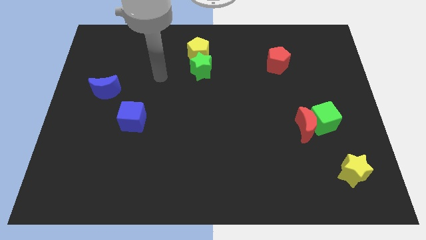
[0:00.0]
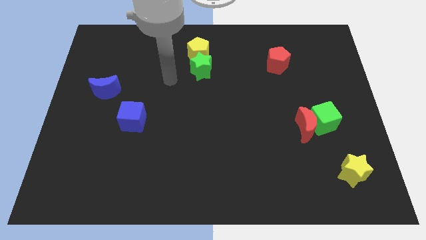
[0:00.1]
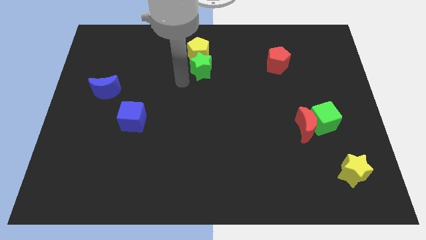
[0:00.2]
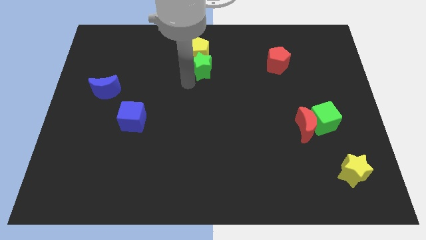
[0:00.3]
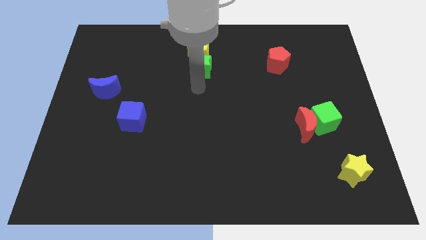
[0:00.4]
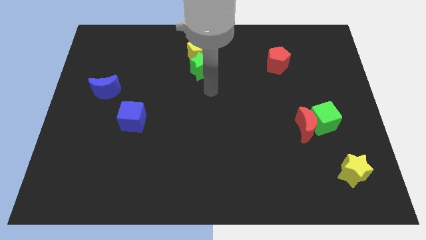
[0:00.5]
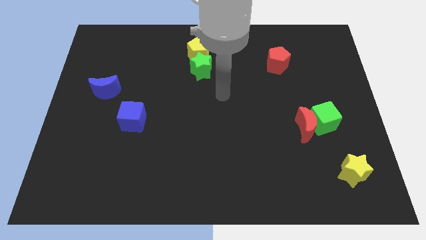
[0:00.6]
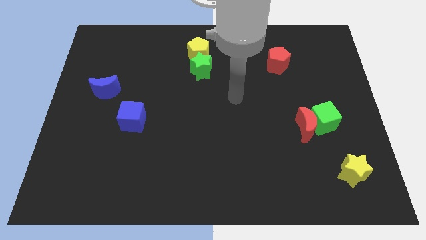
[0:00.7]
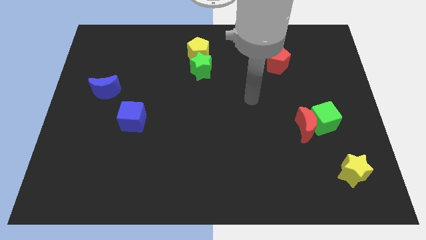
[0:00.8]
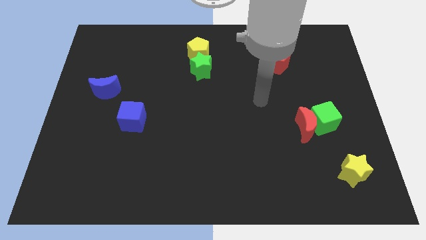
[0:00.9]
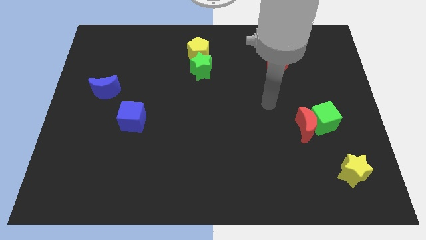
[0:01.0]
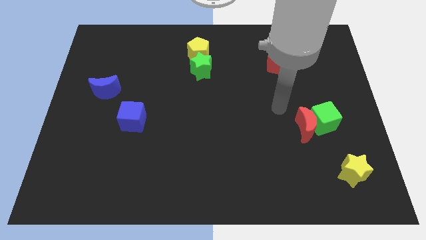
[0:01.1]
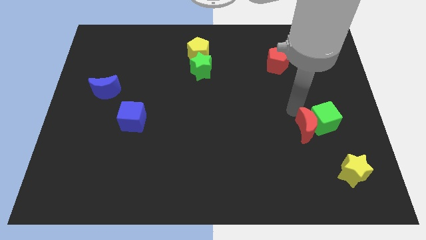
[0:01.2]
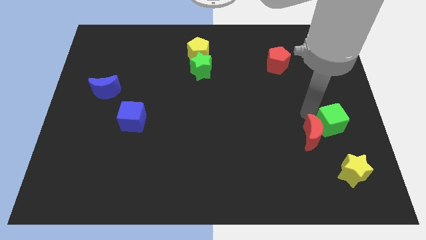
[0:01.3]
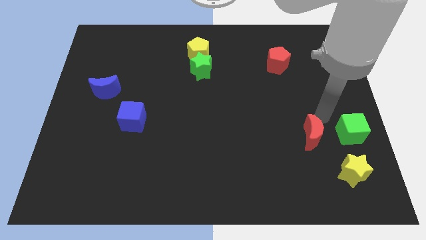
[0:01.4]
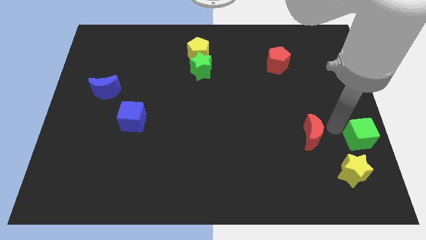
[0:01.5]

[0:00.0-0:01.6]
separate the red moon from the green cube

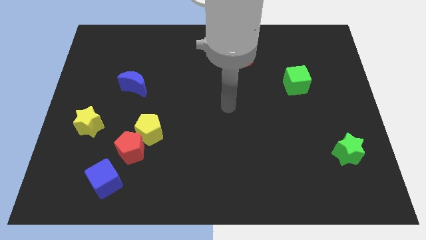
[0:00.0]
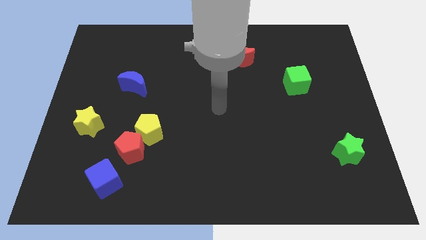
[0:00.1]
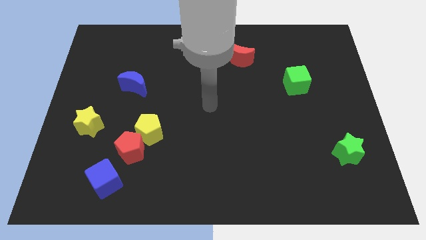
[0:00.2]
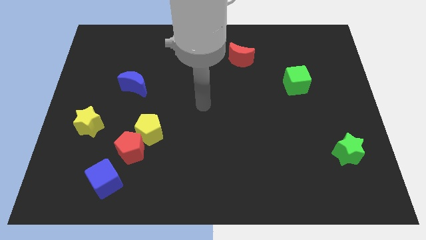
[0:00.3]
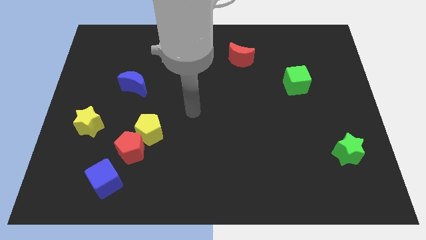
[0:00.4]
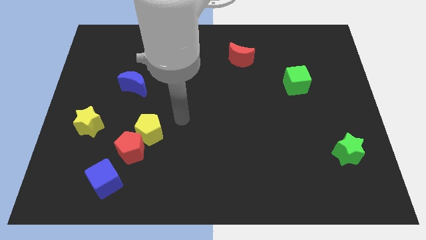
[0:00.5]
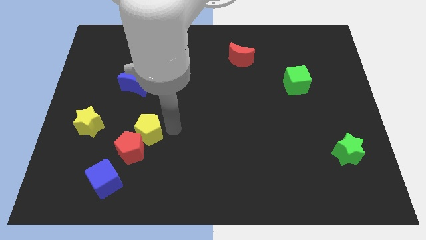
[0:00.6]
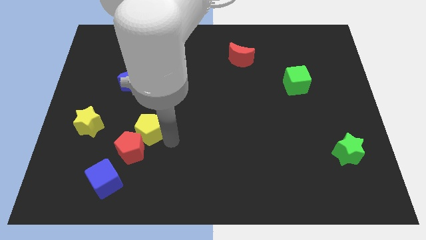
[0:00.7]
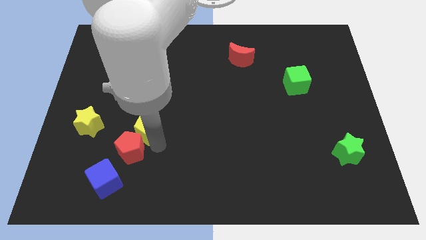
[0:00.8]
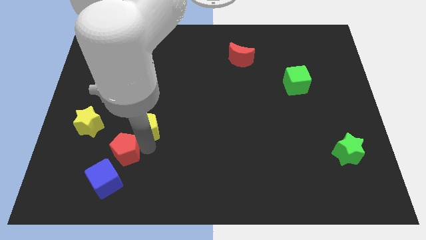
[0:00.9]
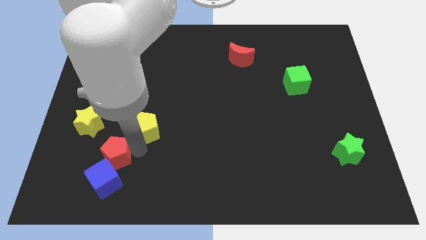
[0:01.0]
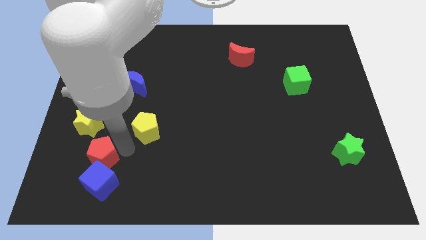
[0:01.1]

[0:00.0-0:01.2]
move the yellow pentagon away from the red pentagon

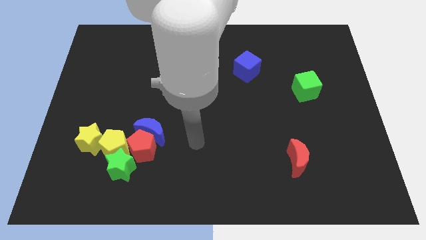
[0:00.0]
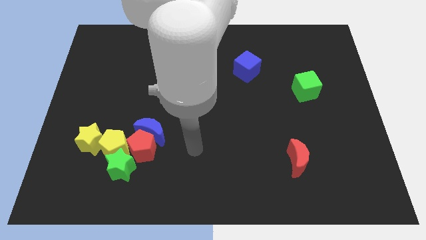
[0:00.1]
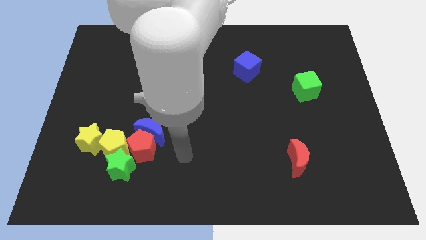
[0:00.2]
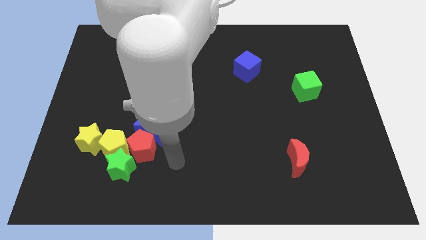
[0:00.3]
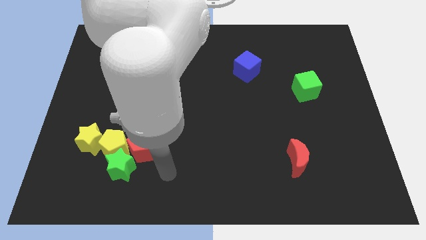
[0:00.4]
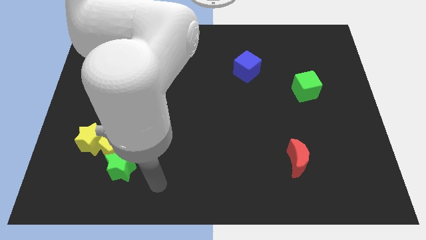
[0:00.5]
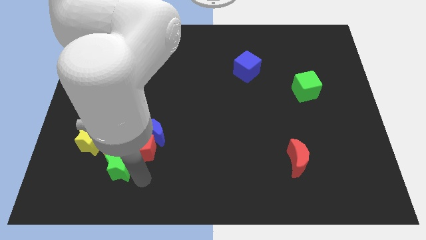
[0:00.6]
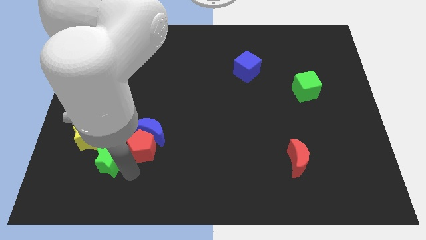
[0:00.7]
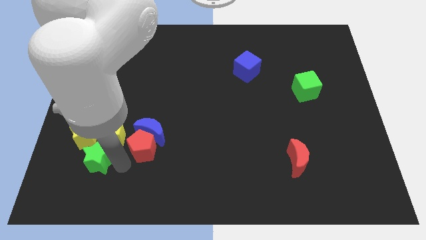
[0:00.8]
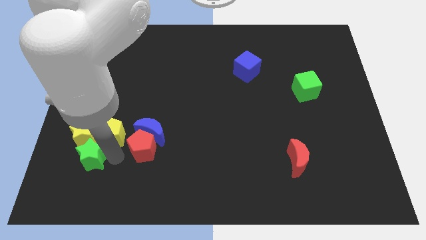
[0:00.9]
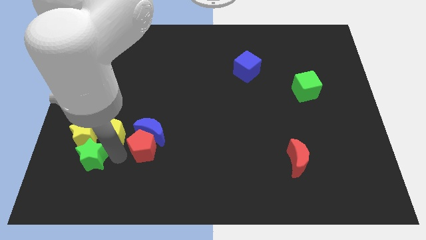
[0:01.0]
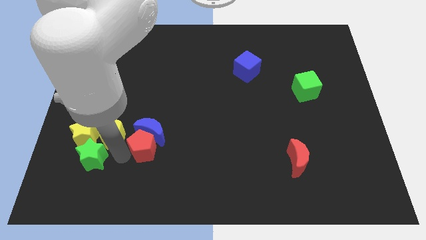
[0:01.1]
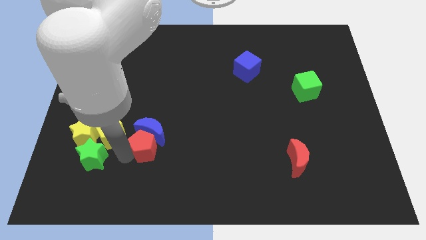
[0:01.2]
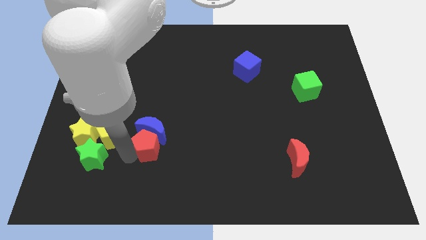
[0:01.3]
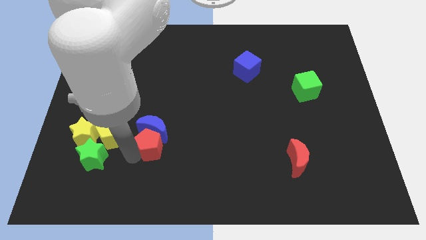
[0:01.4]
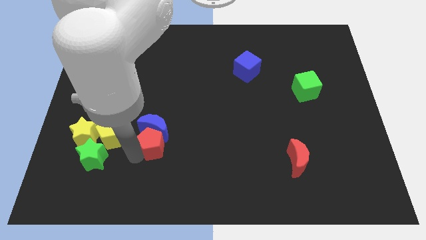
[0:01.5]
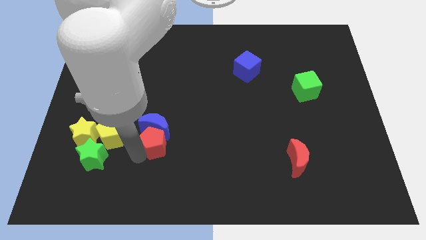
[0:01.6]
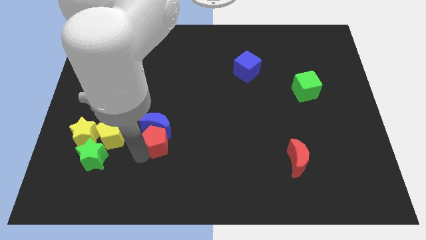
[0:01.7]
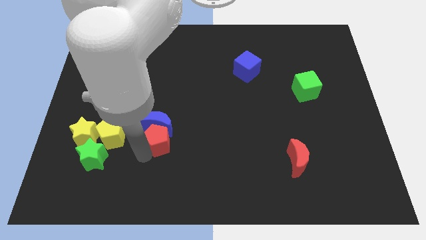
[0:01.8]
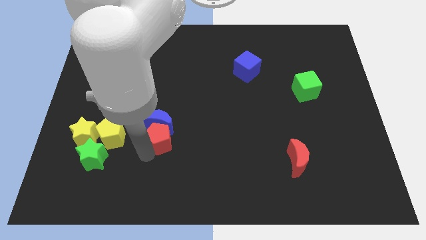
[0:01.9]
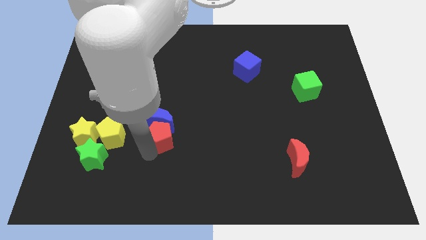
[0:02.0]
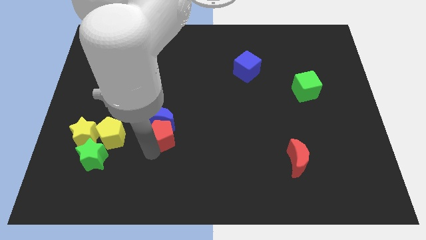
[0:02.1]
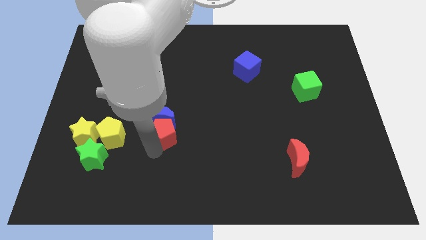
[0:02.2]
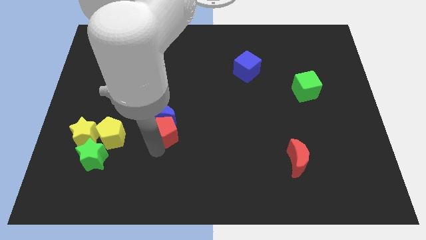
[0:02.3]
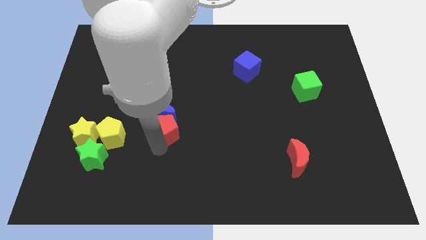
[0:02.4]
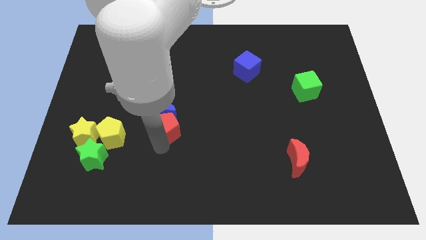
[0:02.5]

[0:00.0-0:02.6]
move the red pentagon away from the blue moon, yellow pentagon, and green star

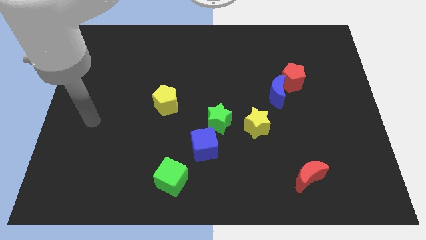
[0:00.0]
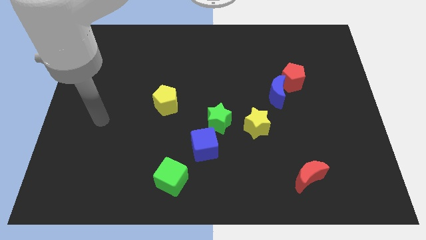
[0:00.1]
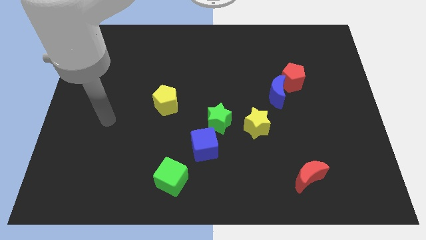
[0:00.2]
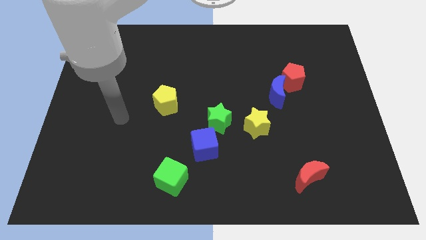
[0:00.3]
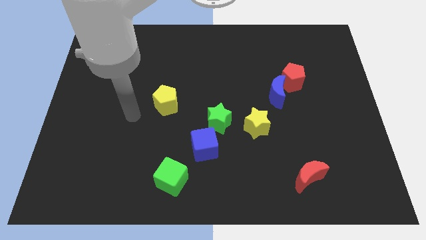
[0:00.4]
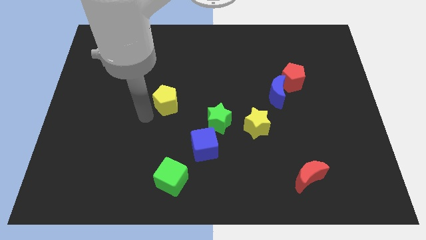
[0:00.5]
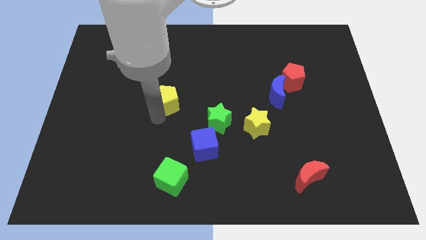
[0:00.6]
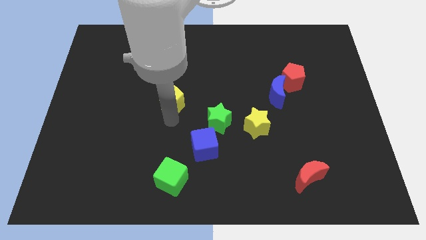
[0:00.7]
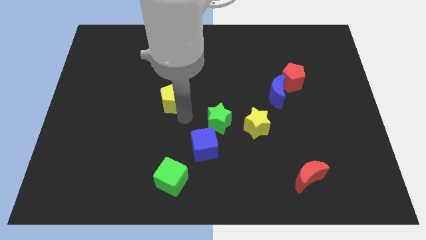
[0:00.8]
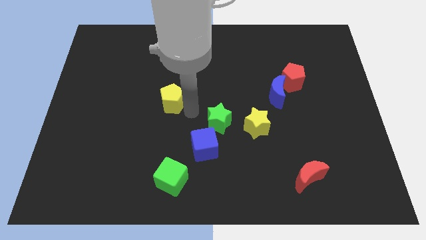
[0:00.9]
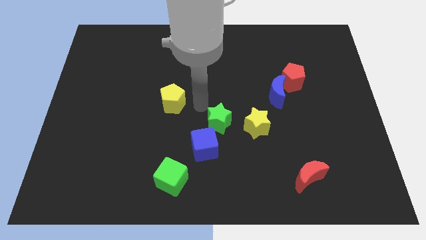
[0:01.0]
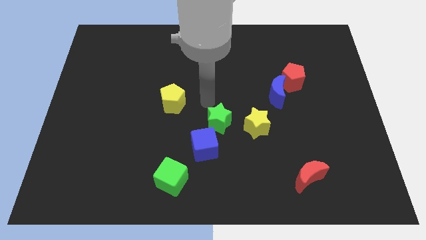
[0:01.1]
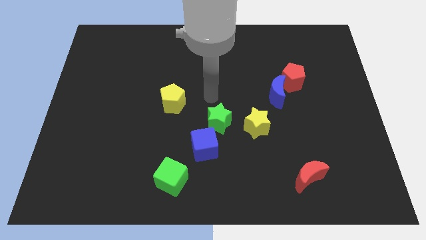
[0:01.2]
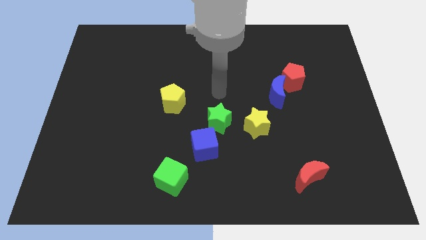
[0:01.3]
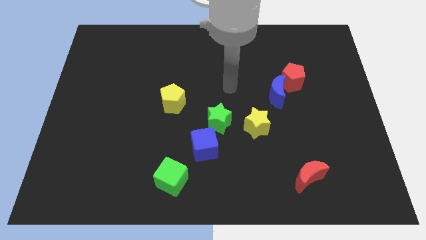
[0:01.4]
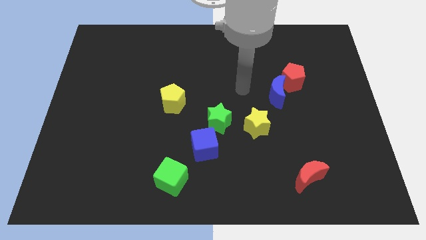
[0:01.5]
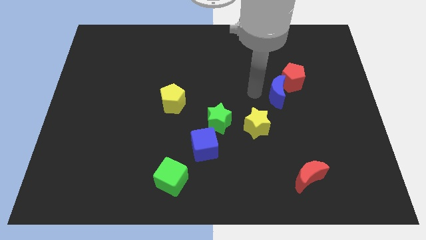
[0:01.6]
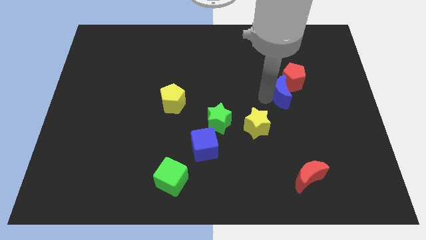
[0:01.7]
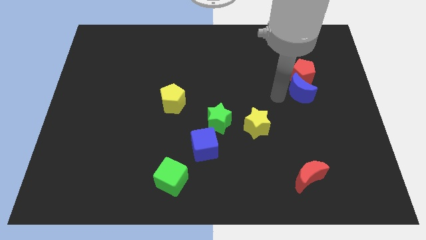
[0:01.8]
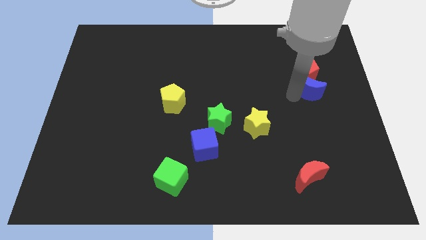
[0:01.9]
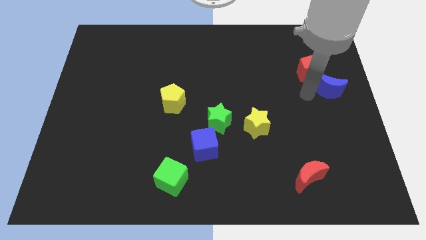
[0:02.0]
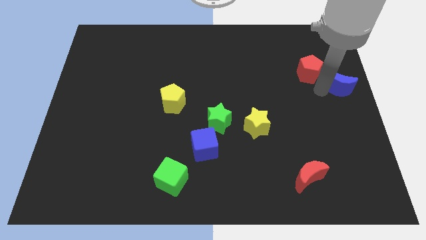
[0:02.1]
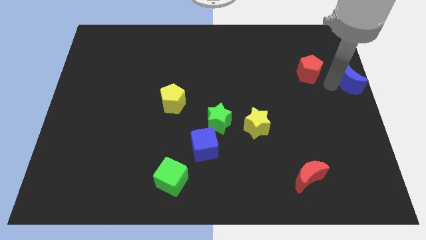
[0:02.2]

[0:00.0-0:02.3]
move the red pentagon away from the blue moon

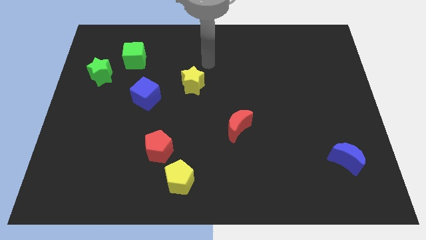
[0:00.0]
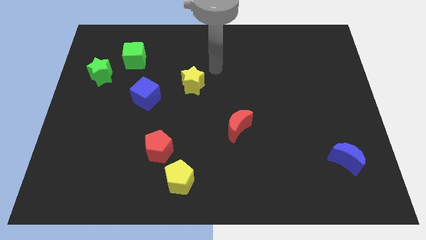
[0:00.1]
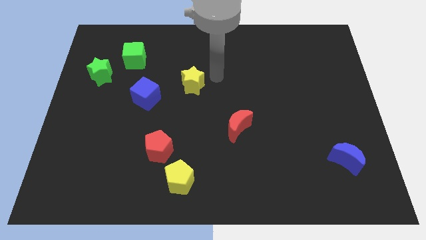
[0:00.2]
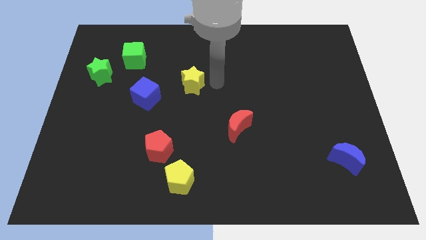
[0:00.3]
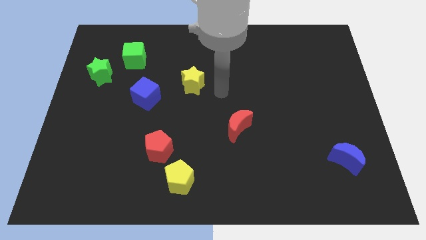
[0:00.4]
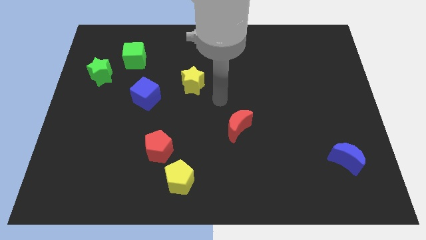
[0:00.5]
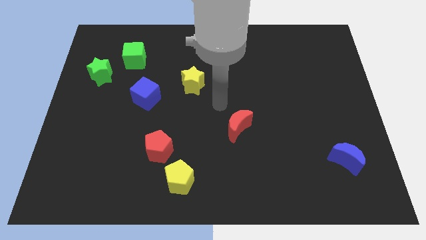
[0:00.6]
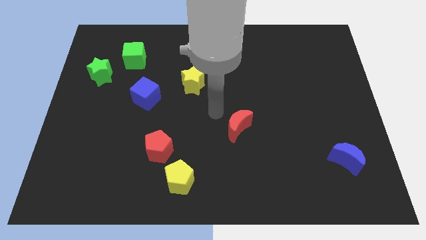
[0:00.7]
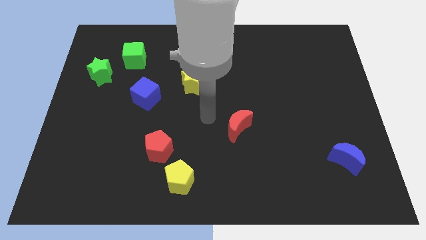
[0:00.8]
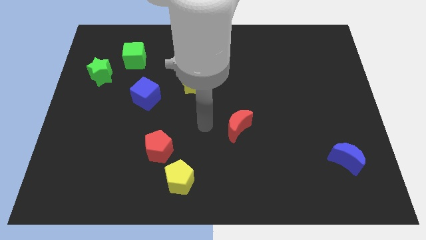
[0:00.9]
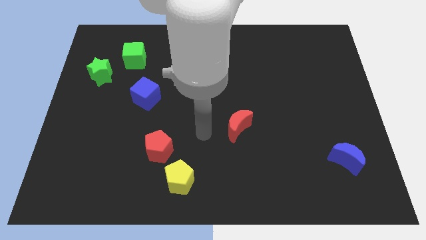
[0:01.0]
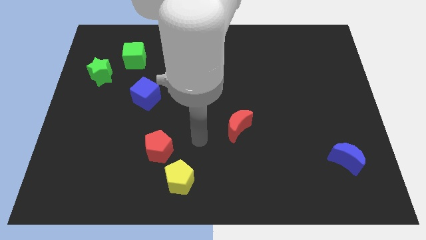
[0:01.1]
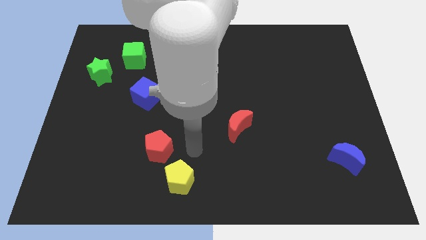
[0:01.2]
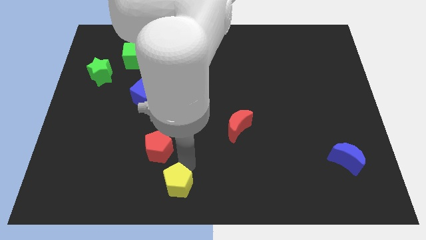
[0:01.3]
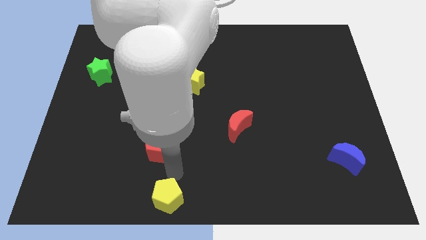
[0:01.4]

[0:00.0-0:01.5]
separate the red pentagon from the yellow pentagon

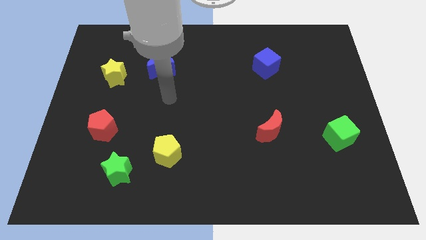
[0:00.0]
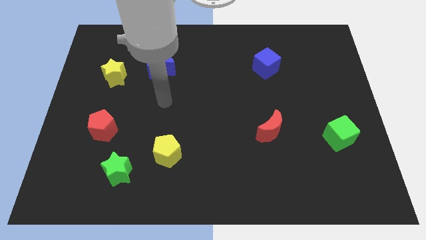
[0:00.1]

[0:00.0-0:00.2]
pull the green star apart from the yellow pentagon
